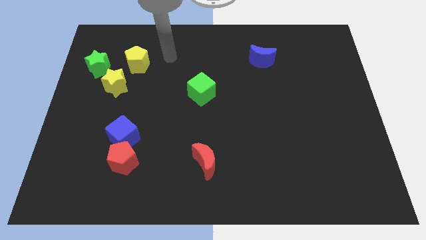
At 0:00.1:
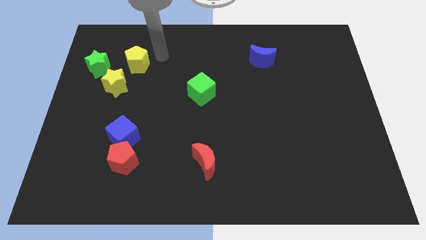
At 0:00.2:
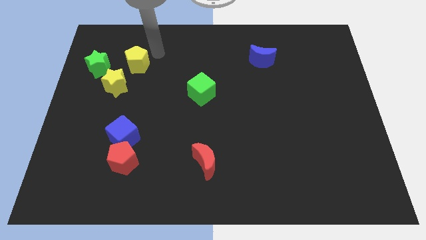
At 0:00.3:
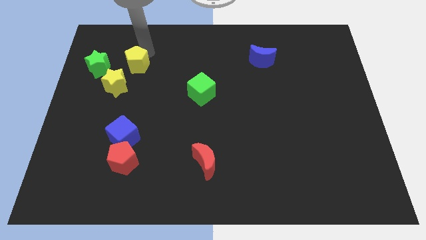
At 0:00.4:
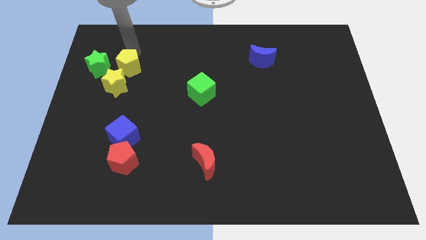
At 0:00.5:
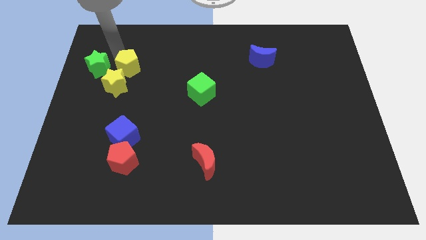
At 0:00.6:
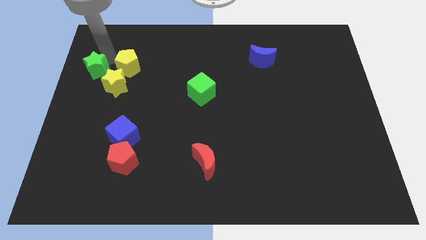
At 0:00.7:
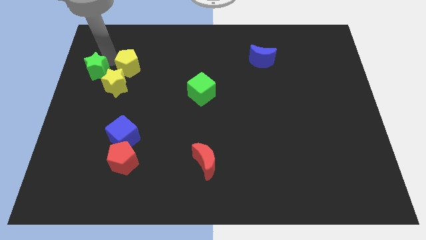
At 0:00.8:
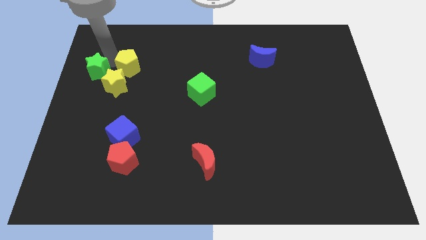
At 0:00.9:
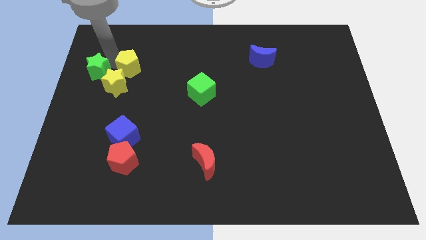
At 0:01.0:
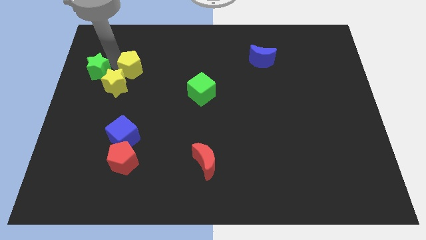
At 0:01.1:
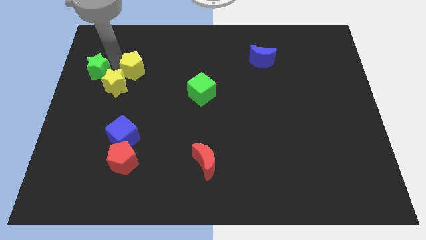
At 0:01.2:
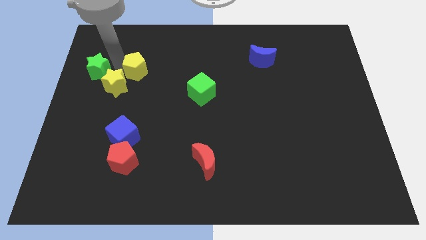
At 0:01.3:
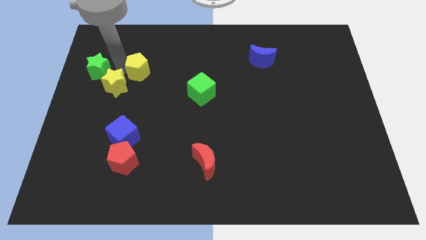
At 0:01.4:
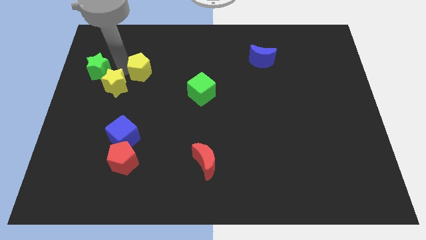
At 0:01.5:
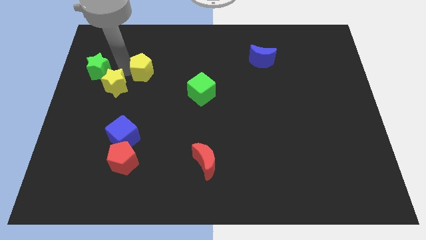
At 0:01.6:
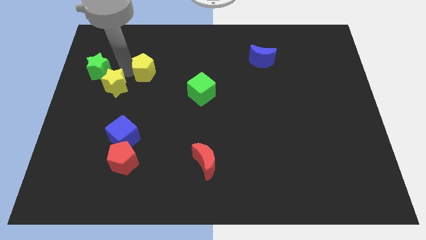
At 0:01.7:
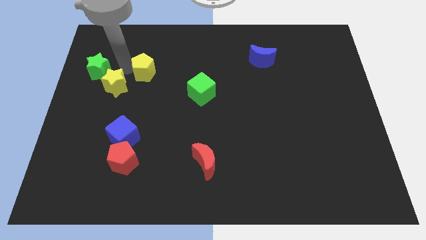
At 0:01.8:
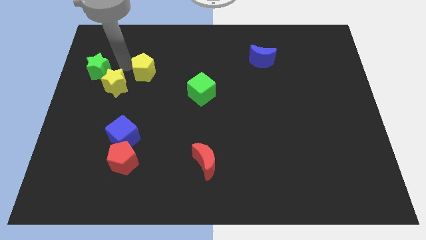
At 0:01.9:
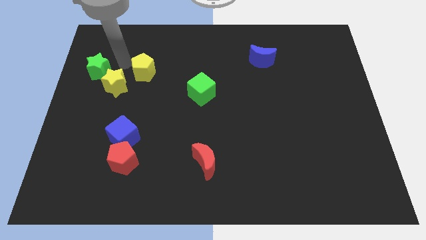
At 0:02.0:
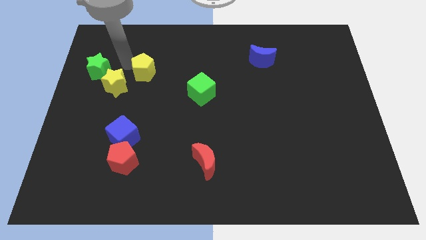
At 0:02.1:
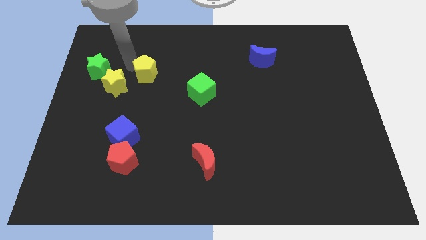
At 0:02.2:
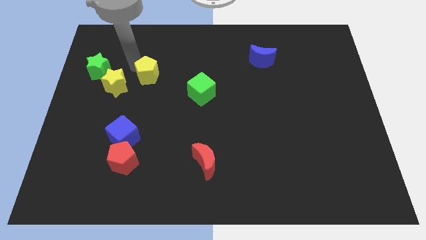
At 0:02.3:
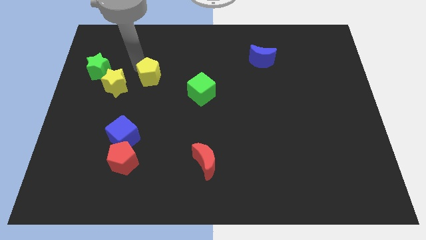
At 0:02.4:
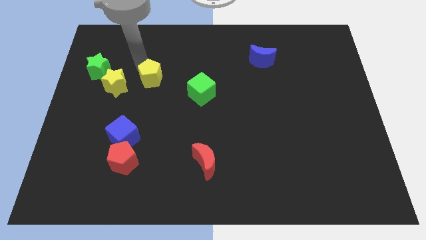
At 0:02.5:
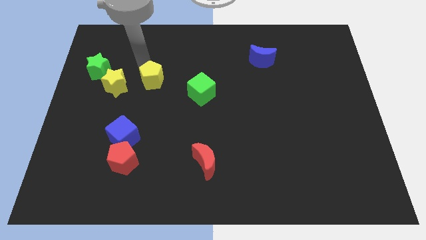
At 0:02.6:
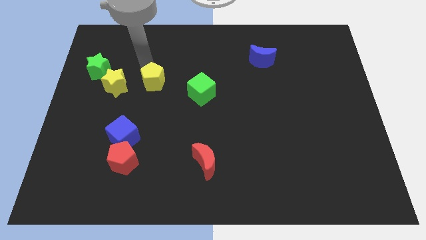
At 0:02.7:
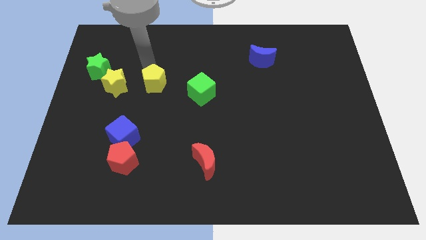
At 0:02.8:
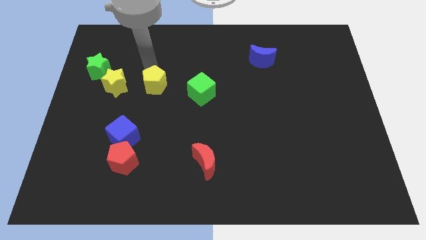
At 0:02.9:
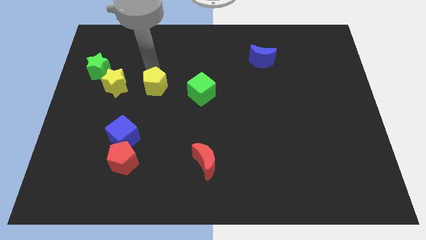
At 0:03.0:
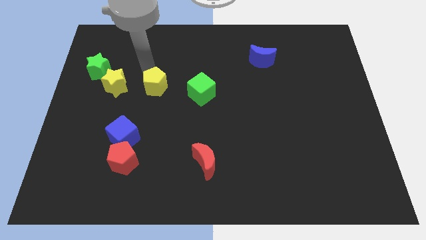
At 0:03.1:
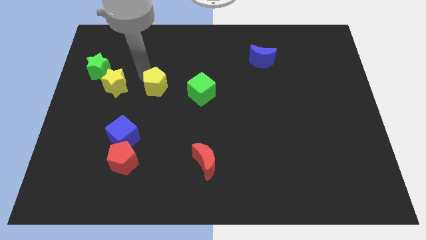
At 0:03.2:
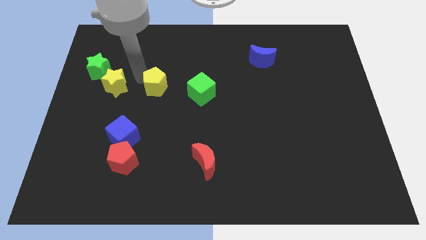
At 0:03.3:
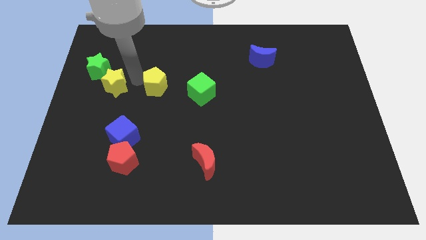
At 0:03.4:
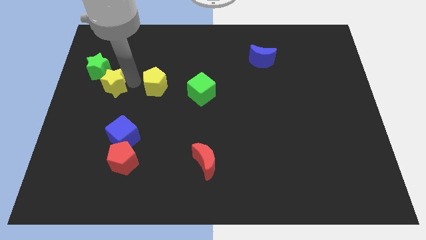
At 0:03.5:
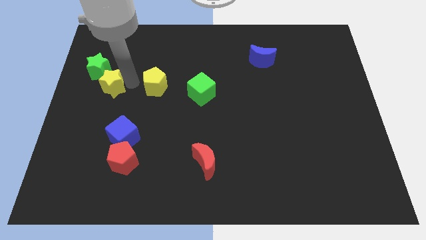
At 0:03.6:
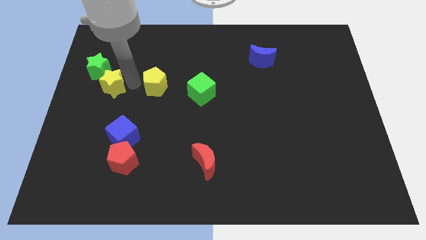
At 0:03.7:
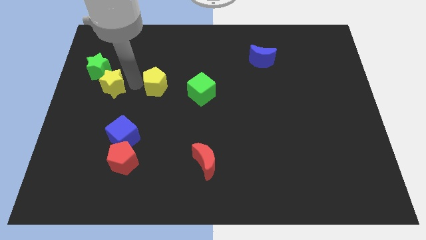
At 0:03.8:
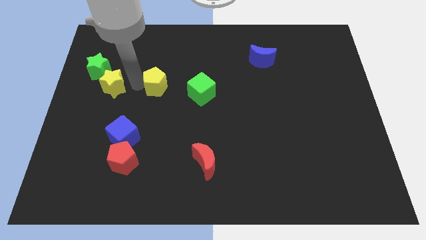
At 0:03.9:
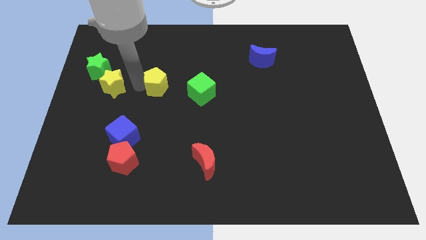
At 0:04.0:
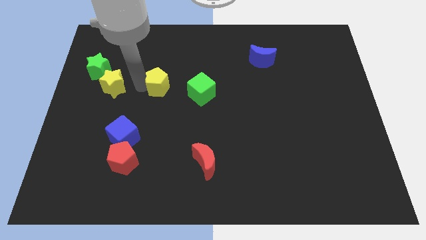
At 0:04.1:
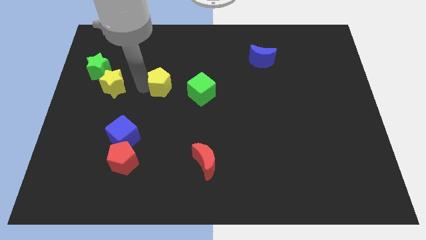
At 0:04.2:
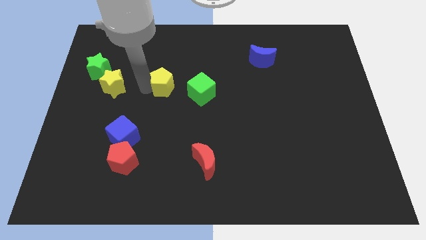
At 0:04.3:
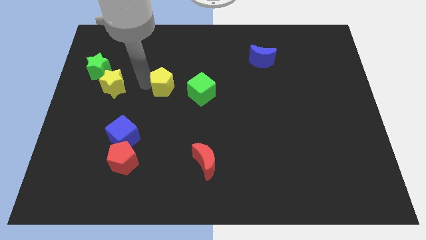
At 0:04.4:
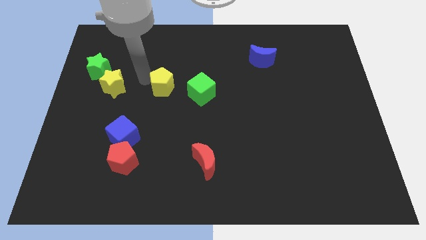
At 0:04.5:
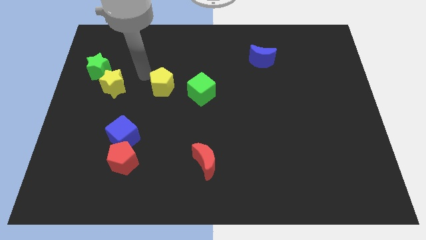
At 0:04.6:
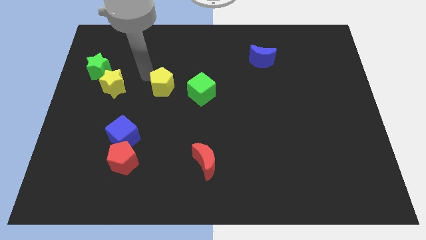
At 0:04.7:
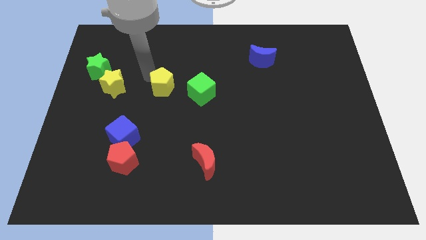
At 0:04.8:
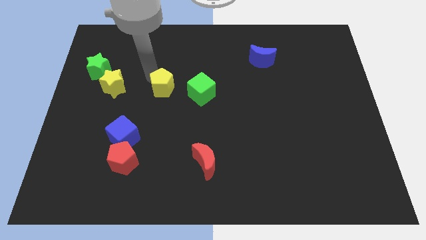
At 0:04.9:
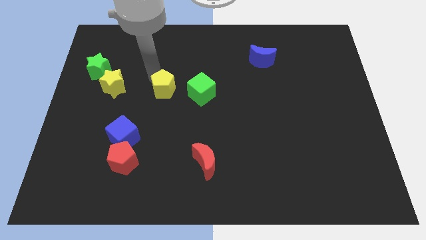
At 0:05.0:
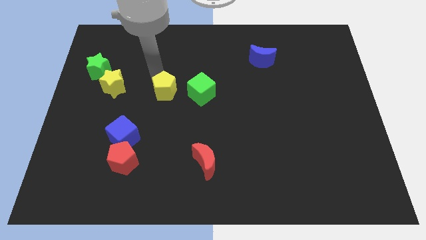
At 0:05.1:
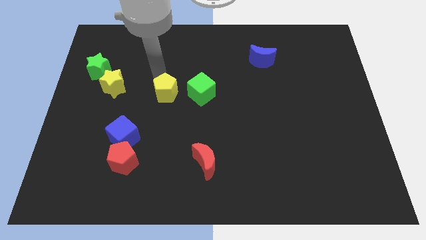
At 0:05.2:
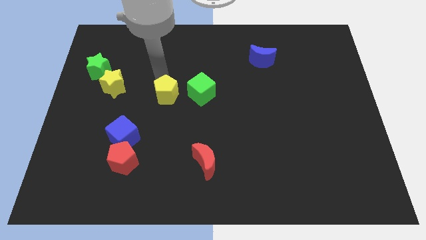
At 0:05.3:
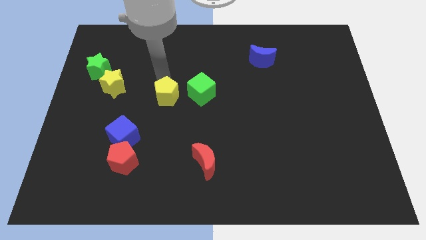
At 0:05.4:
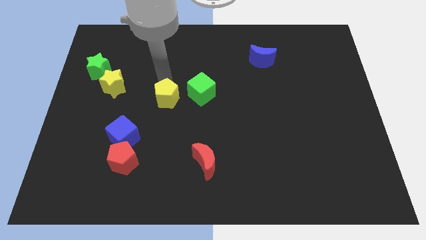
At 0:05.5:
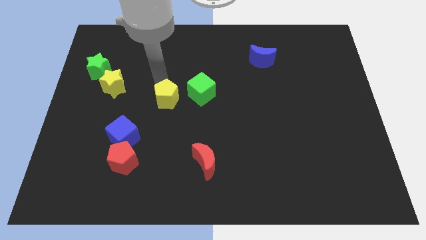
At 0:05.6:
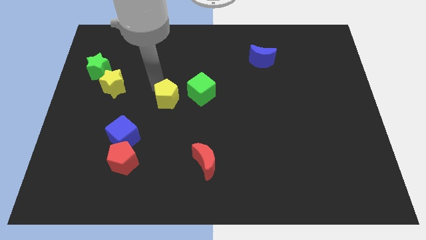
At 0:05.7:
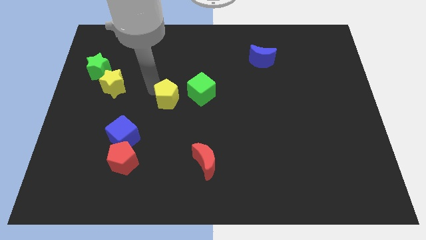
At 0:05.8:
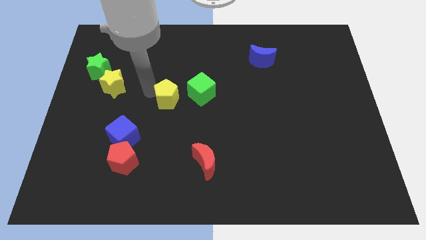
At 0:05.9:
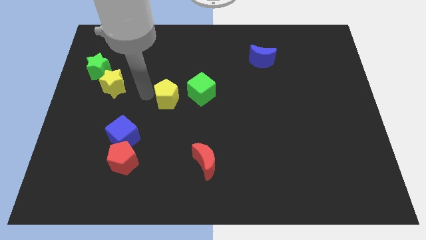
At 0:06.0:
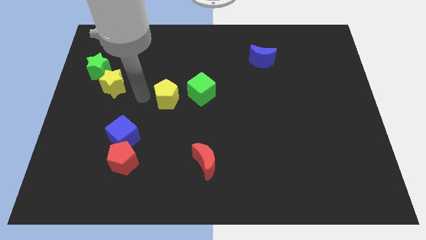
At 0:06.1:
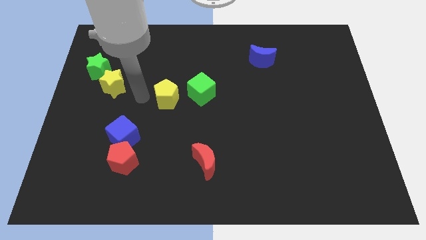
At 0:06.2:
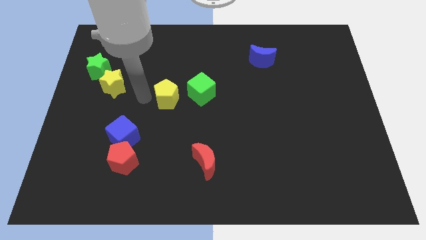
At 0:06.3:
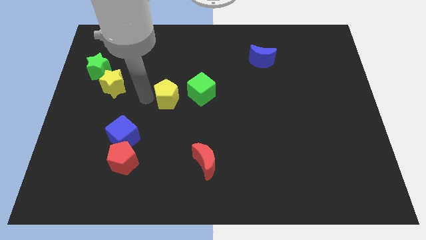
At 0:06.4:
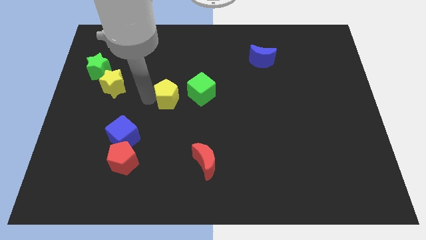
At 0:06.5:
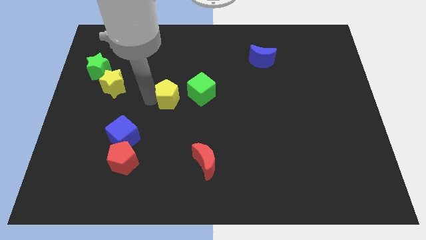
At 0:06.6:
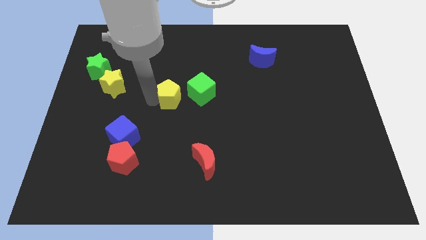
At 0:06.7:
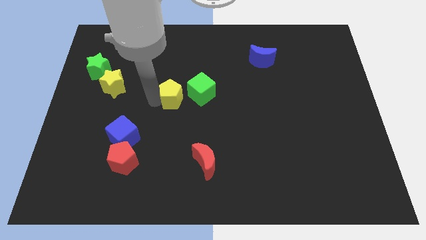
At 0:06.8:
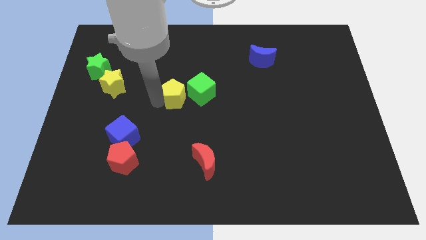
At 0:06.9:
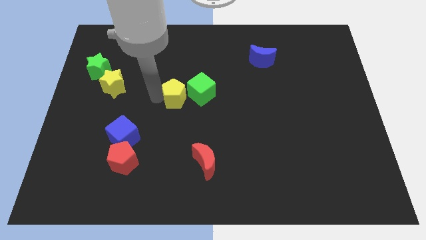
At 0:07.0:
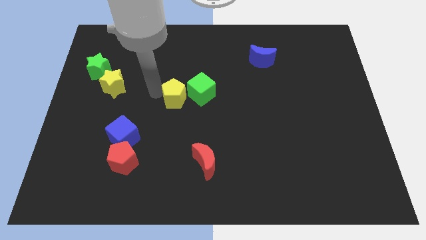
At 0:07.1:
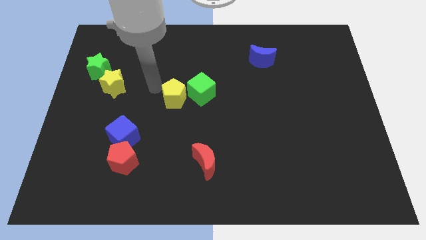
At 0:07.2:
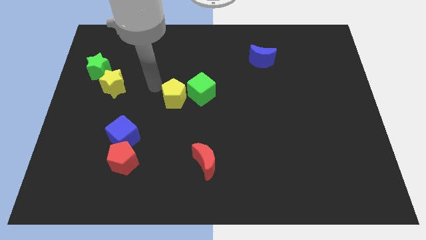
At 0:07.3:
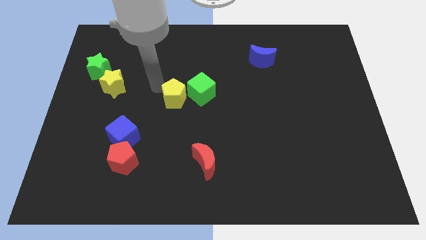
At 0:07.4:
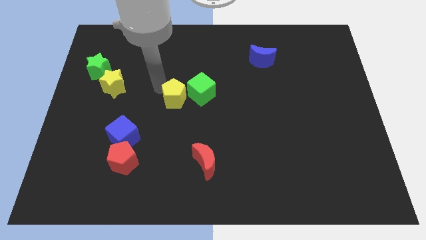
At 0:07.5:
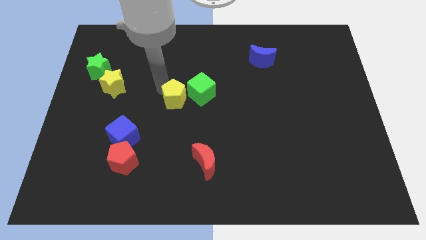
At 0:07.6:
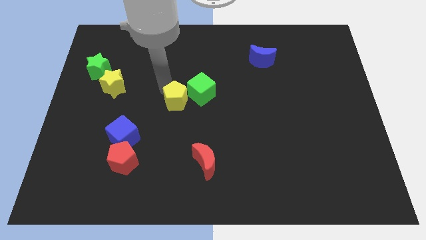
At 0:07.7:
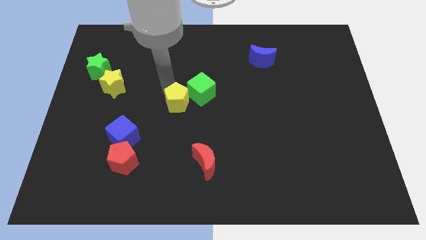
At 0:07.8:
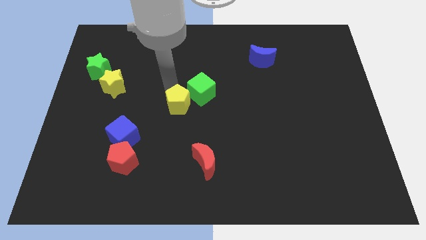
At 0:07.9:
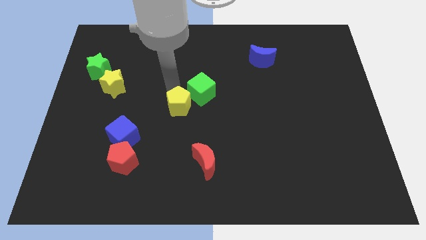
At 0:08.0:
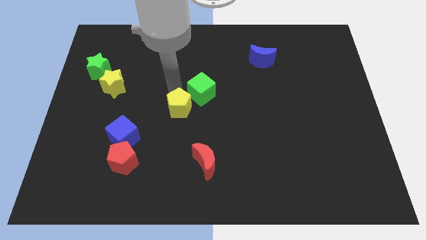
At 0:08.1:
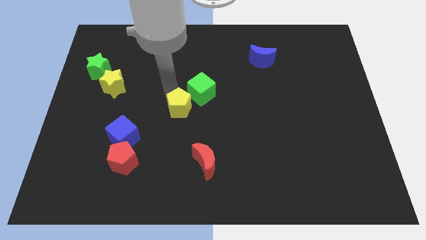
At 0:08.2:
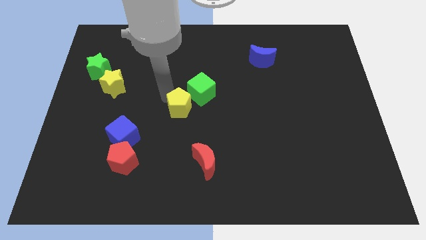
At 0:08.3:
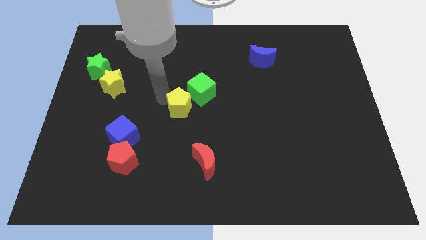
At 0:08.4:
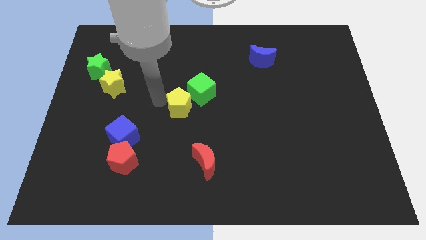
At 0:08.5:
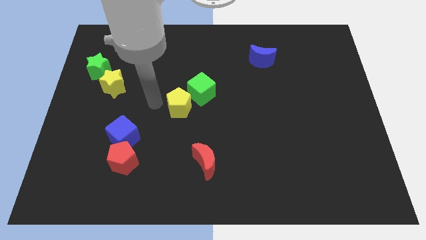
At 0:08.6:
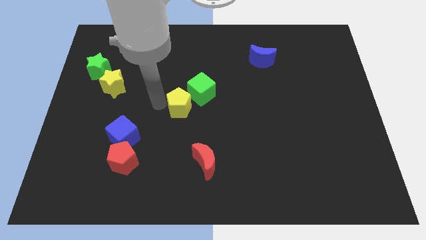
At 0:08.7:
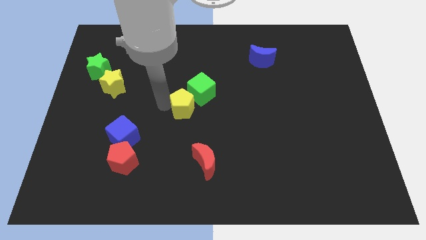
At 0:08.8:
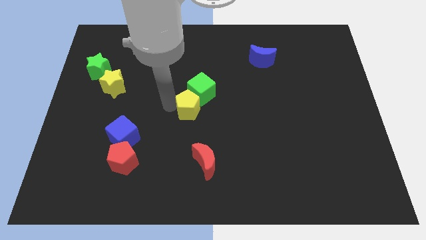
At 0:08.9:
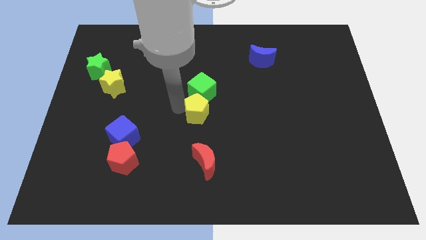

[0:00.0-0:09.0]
slide the yellow pentagon to the bottom right of the green cube
